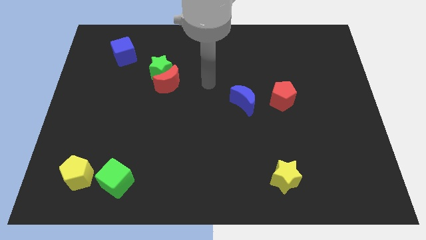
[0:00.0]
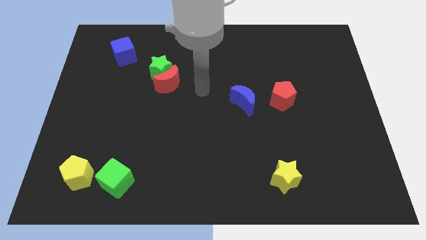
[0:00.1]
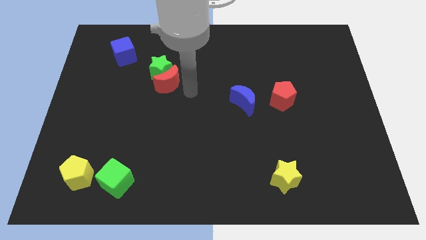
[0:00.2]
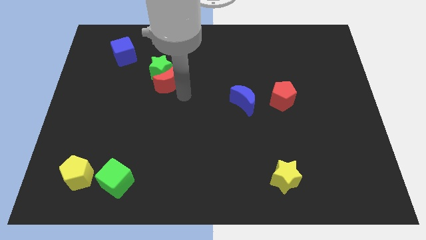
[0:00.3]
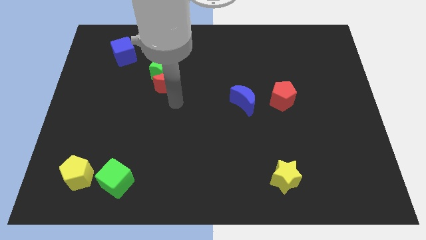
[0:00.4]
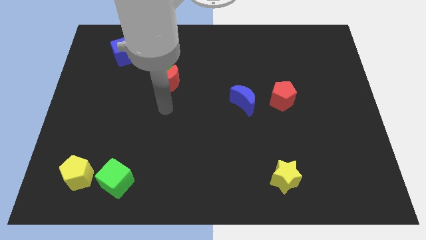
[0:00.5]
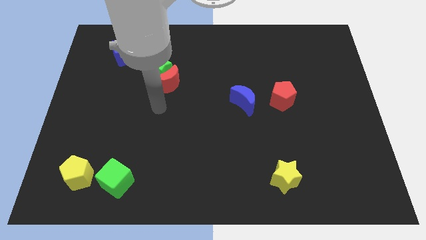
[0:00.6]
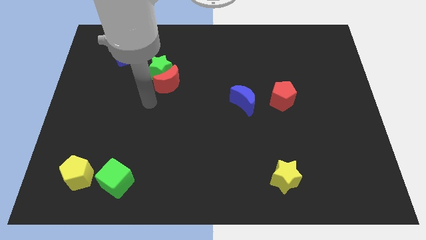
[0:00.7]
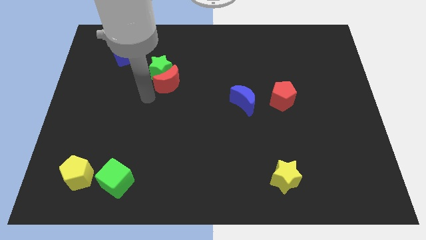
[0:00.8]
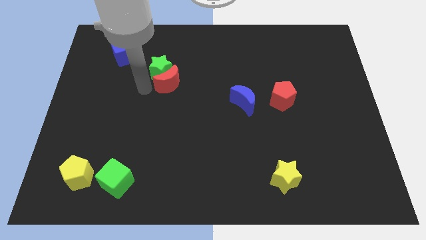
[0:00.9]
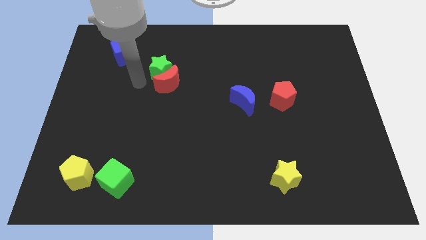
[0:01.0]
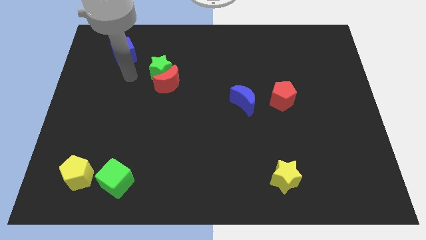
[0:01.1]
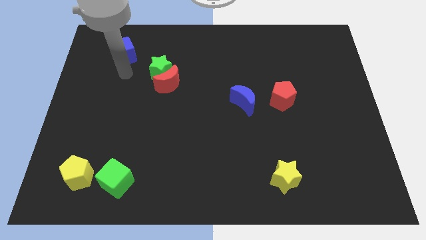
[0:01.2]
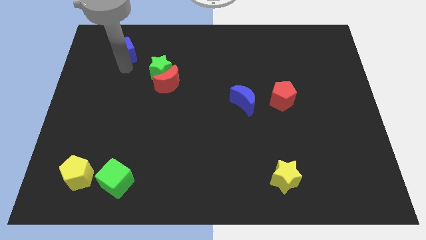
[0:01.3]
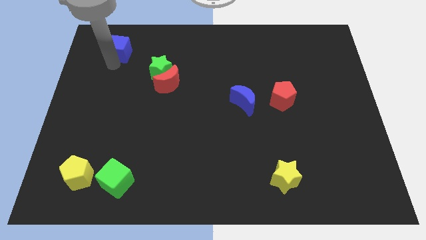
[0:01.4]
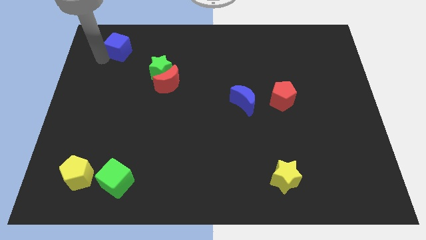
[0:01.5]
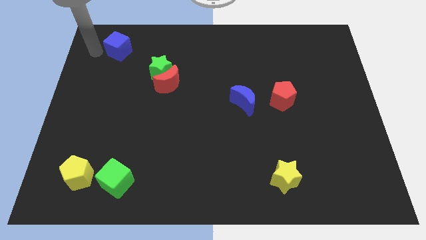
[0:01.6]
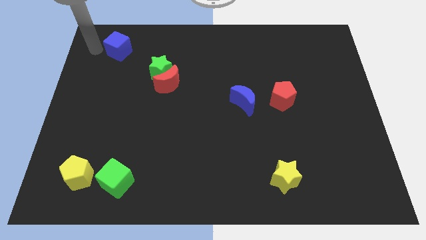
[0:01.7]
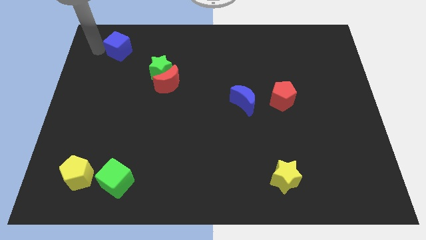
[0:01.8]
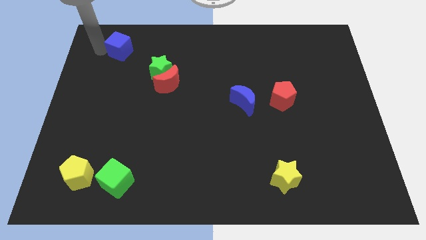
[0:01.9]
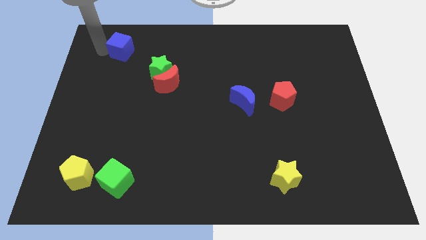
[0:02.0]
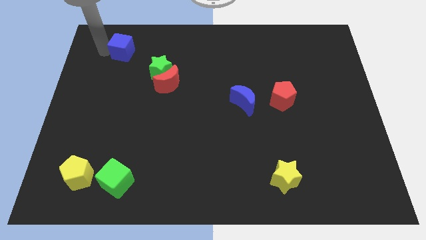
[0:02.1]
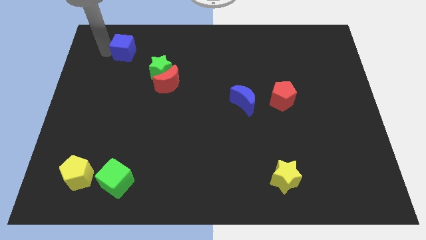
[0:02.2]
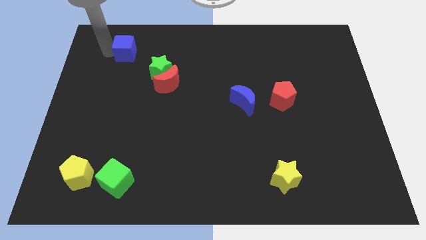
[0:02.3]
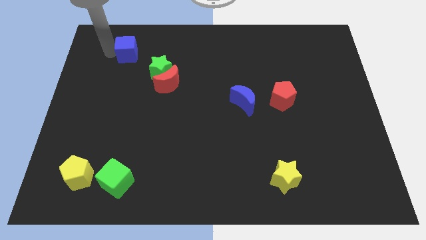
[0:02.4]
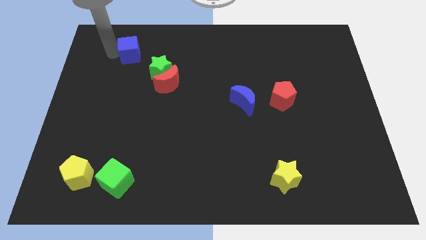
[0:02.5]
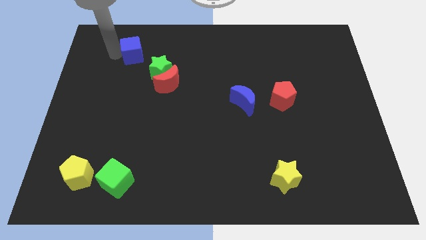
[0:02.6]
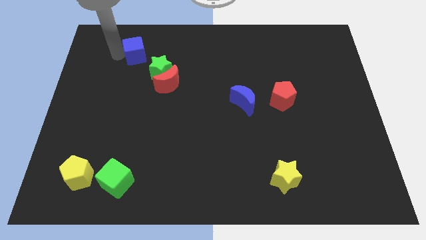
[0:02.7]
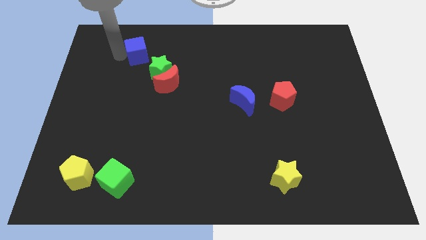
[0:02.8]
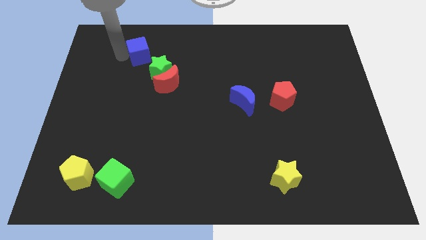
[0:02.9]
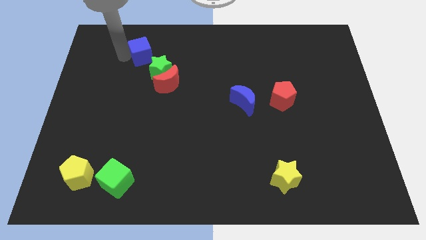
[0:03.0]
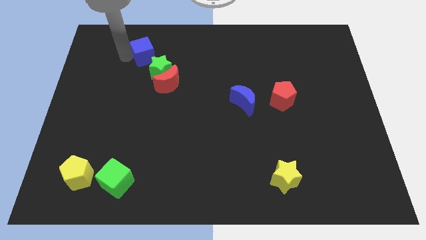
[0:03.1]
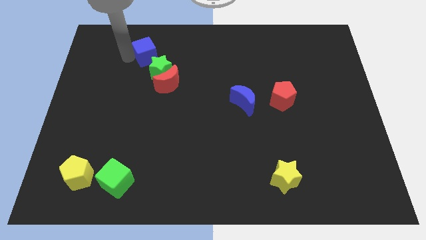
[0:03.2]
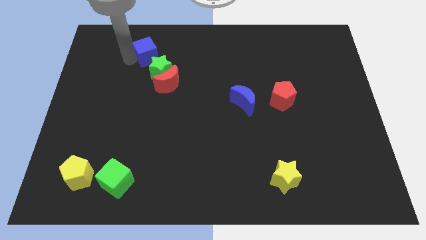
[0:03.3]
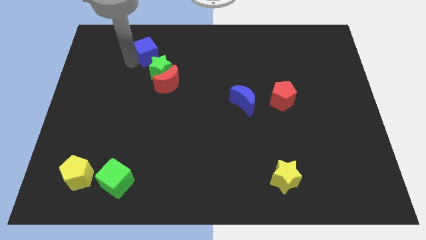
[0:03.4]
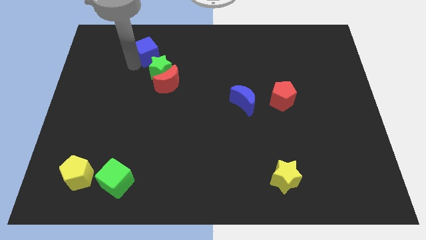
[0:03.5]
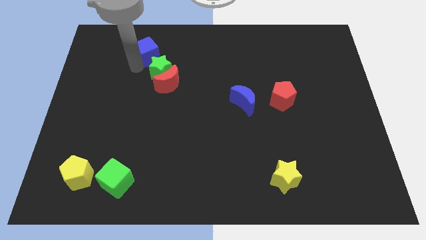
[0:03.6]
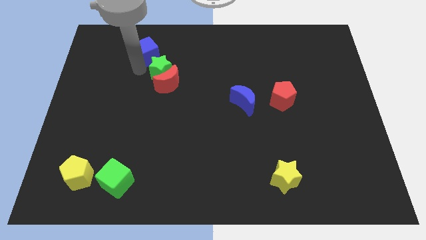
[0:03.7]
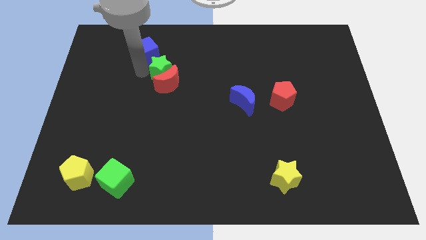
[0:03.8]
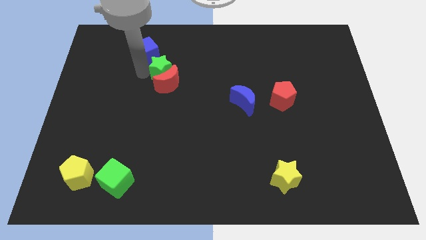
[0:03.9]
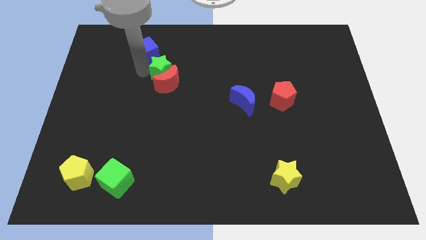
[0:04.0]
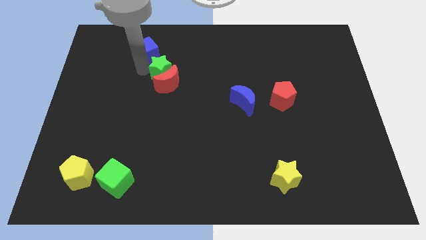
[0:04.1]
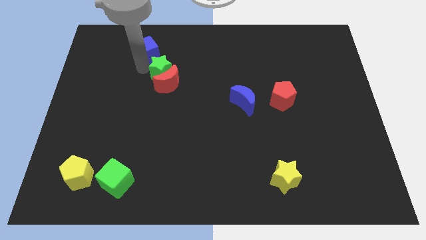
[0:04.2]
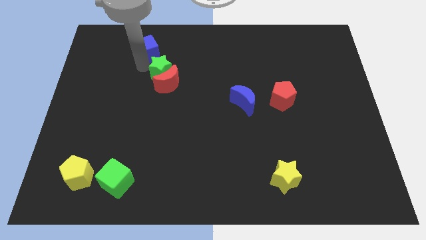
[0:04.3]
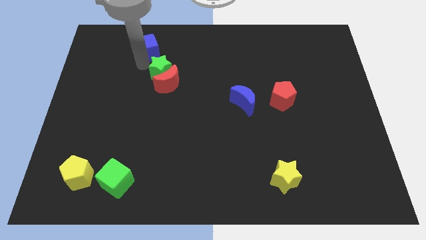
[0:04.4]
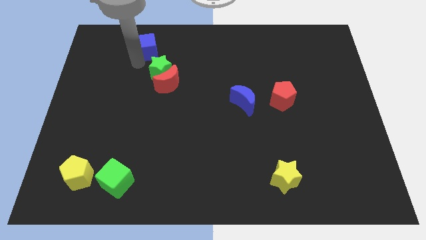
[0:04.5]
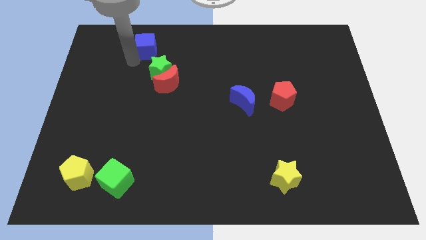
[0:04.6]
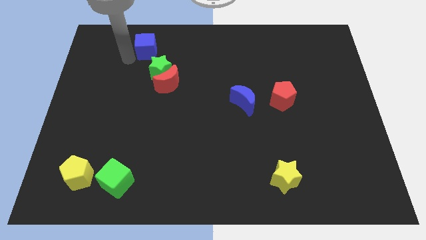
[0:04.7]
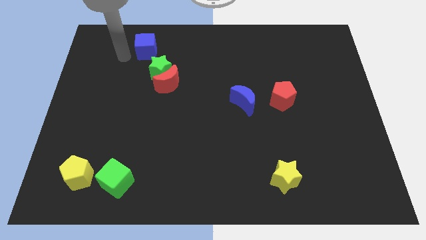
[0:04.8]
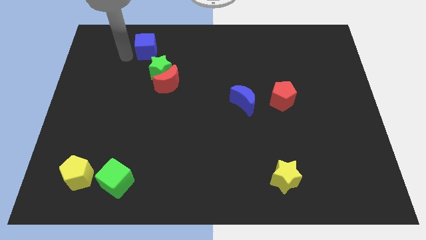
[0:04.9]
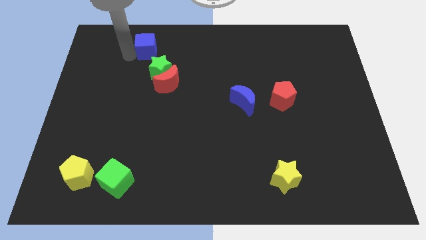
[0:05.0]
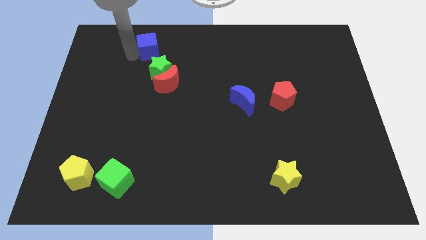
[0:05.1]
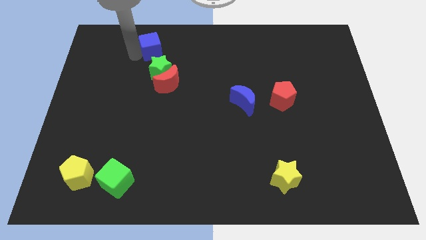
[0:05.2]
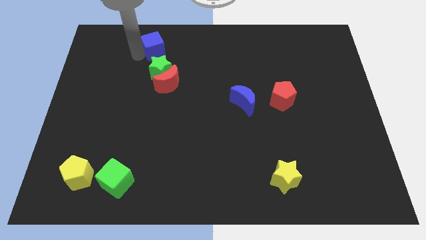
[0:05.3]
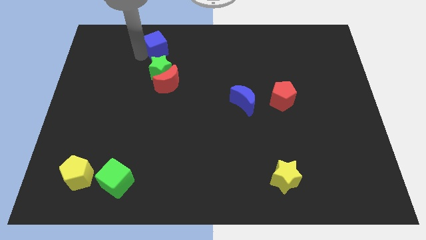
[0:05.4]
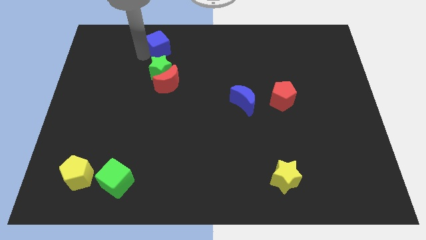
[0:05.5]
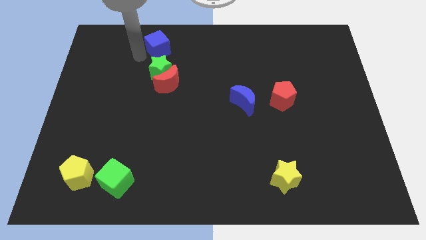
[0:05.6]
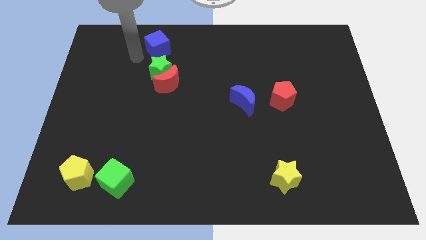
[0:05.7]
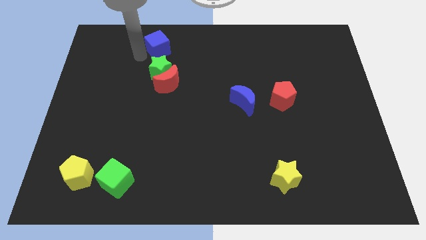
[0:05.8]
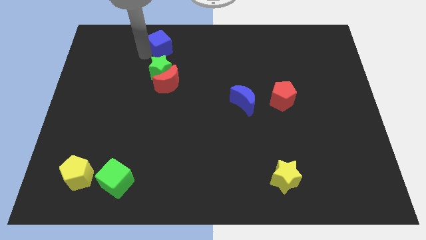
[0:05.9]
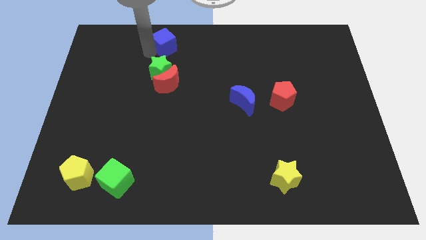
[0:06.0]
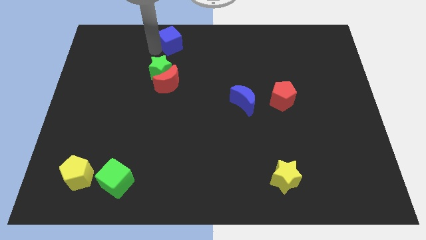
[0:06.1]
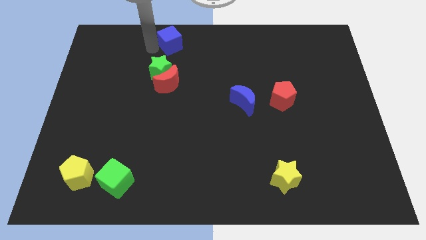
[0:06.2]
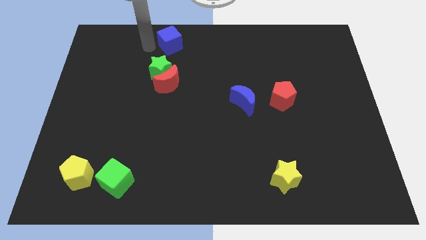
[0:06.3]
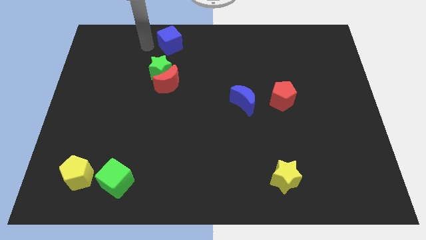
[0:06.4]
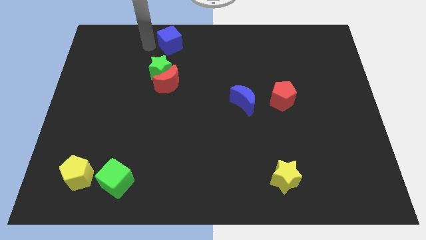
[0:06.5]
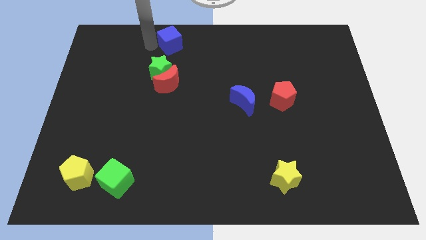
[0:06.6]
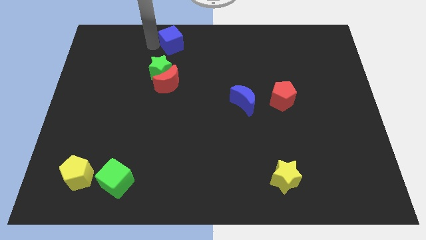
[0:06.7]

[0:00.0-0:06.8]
slide the blue cube to the top
